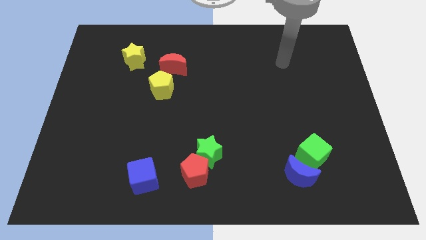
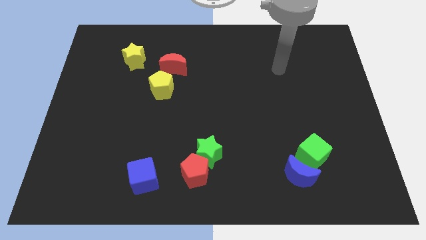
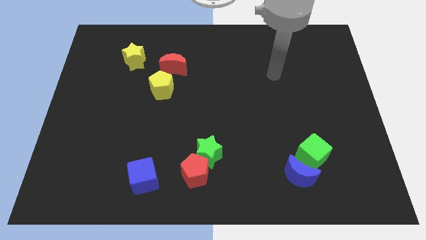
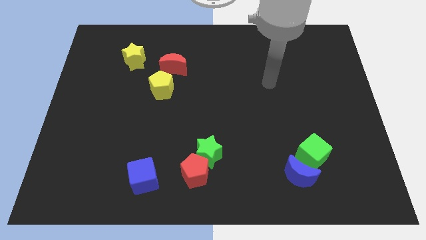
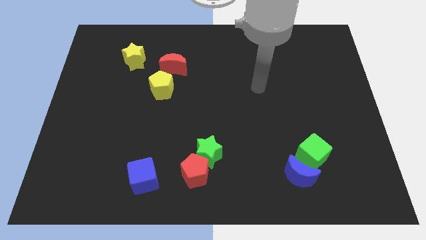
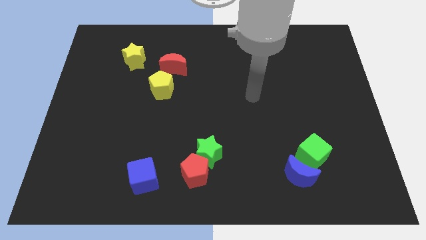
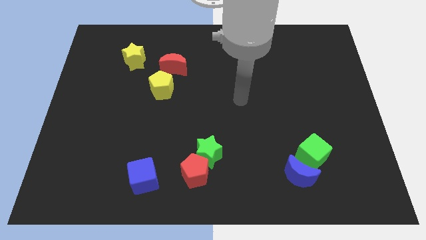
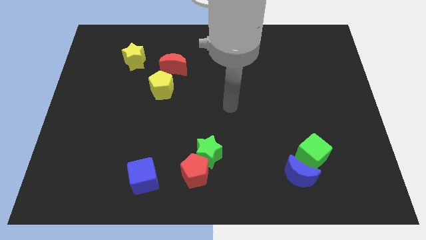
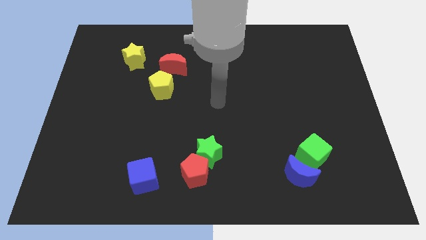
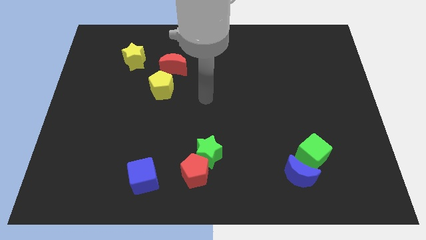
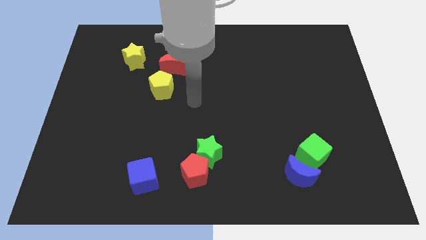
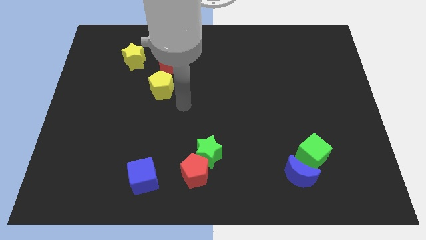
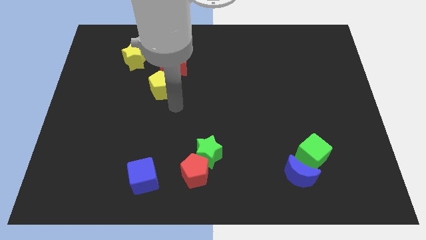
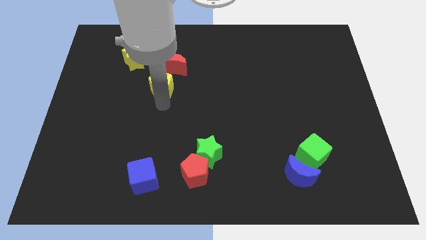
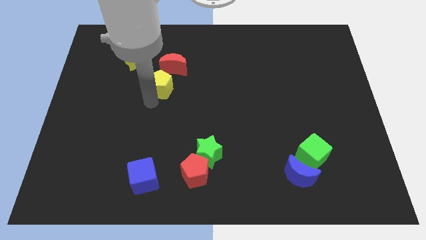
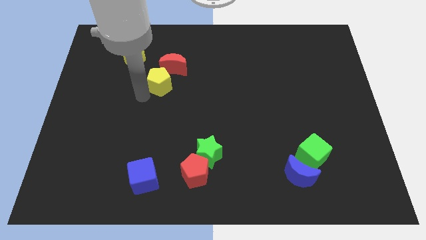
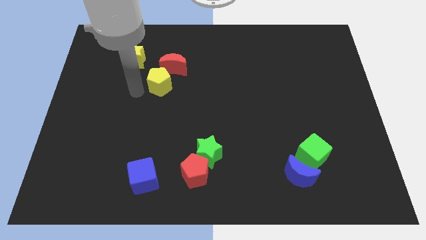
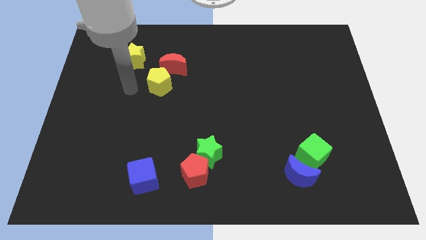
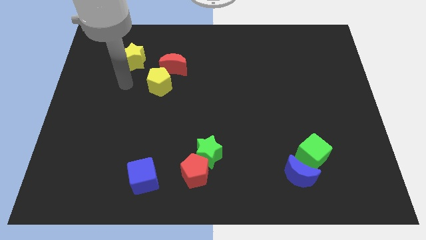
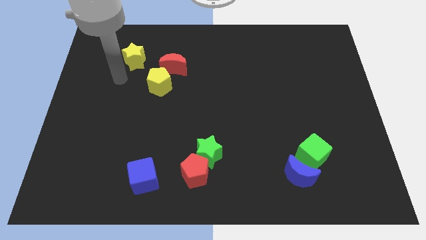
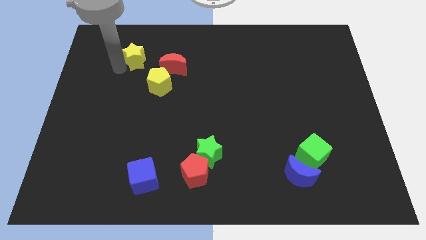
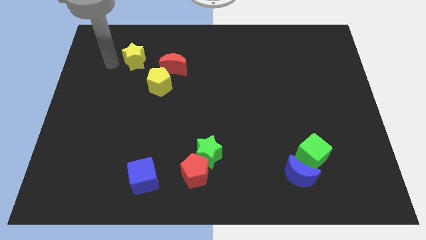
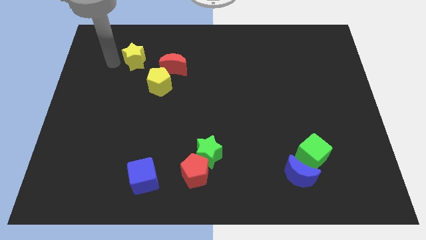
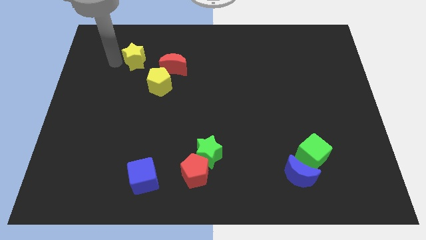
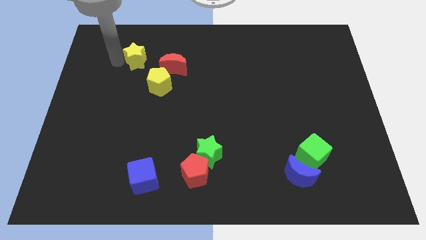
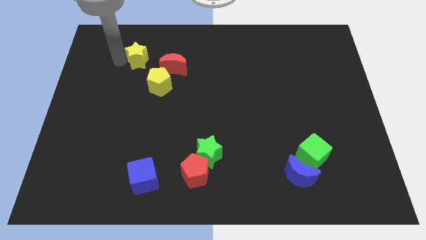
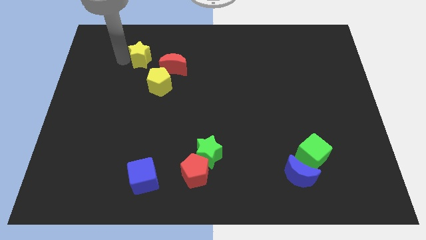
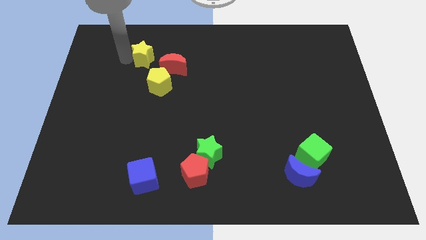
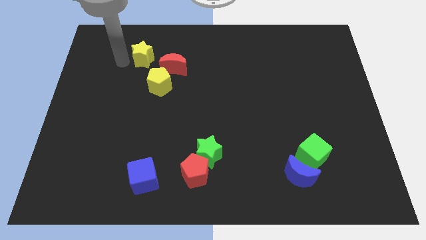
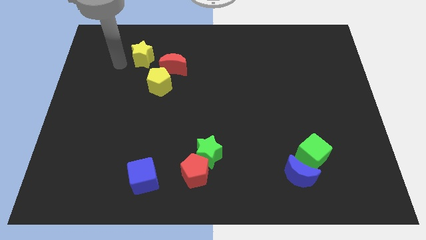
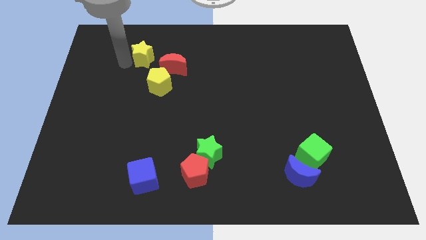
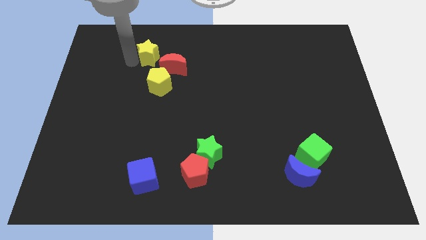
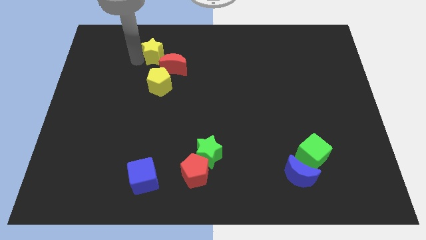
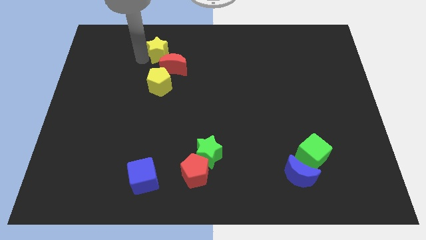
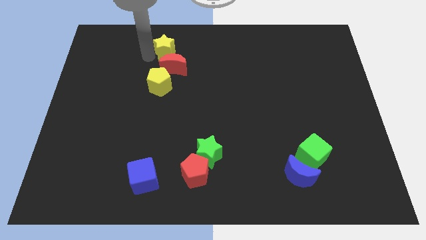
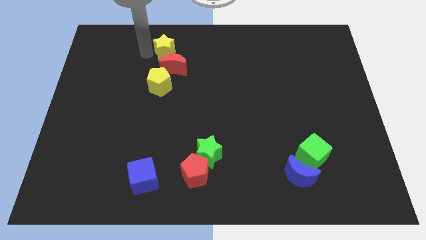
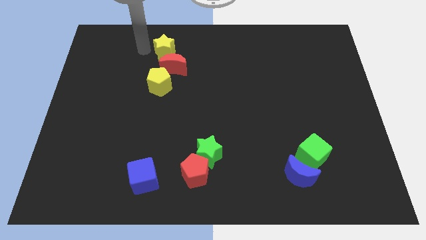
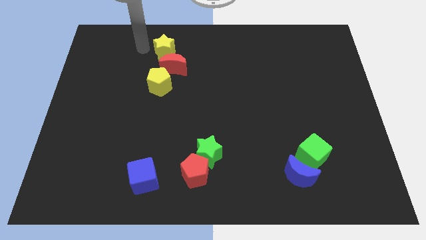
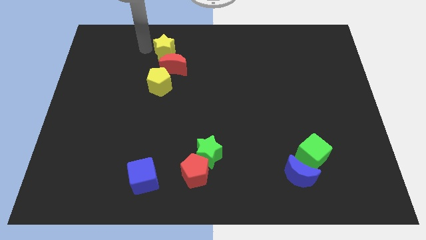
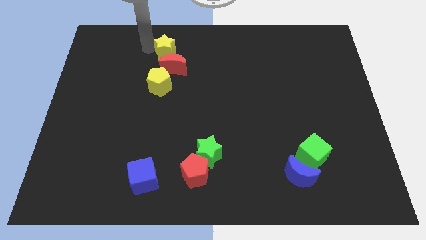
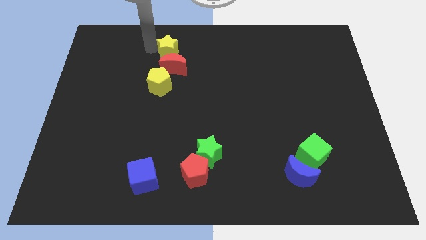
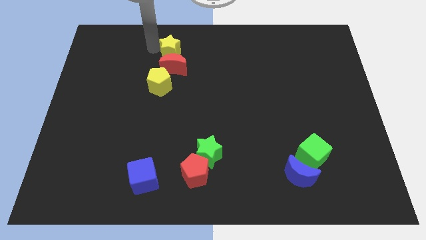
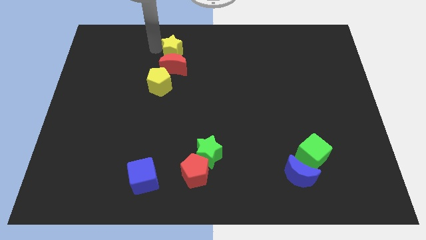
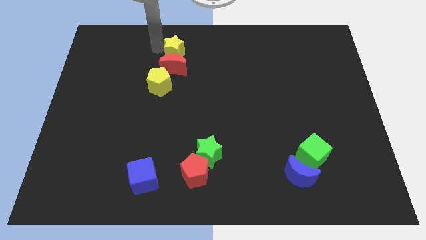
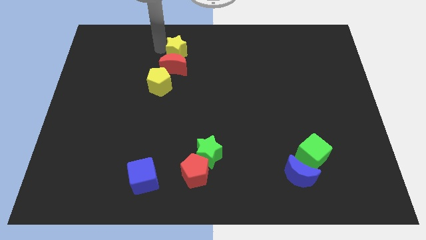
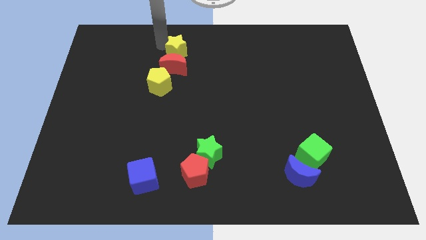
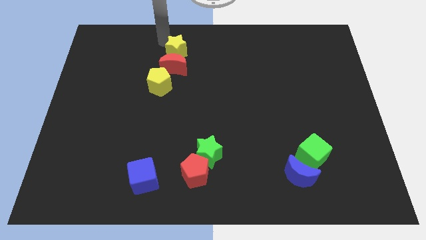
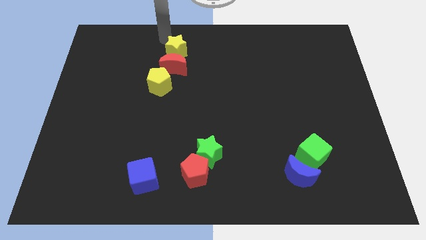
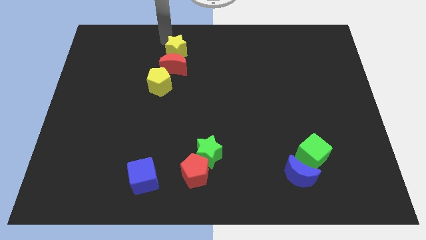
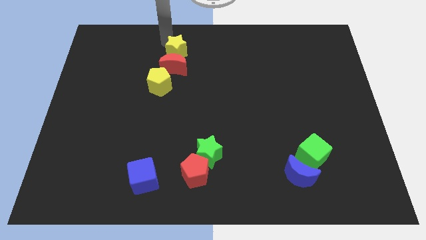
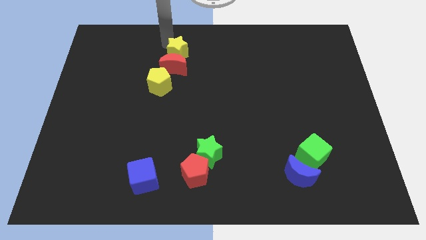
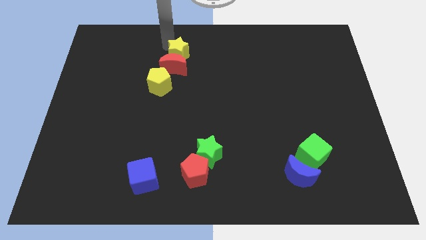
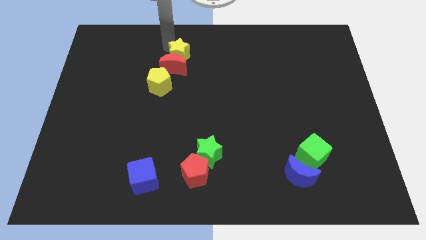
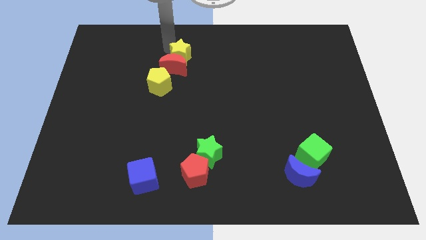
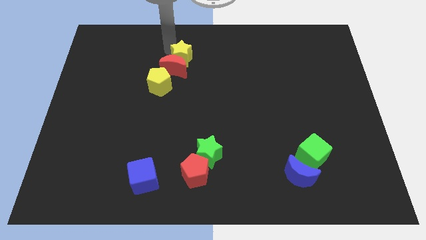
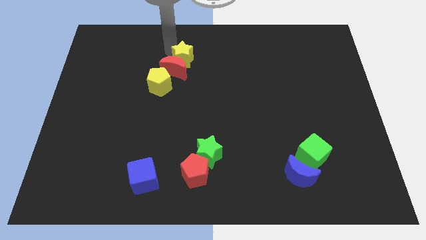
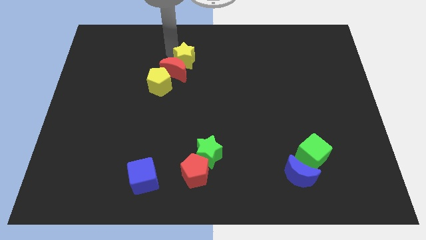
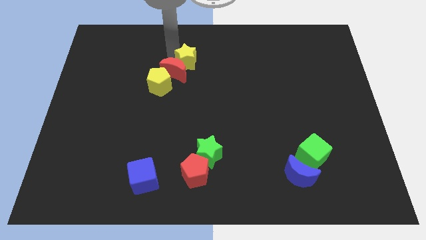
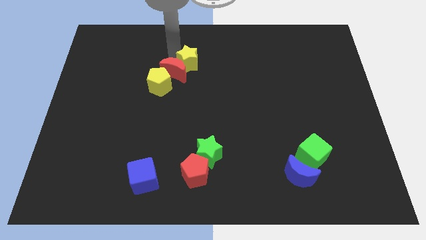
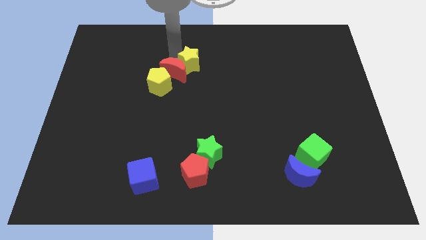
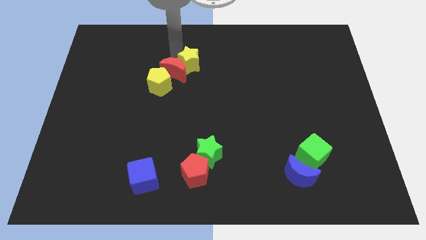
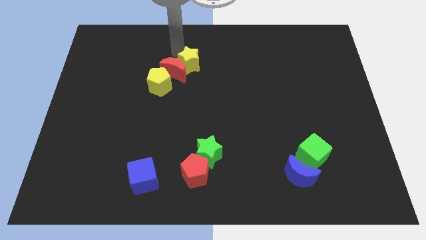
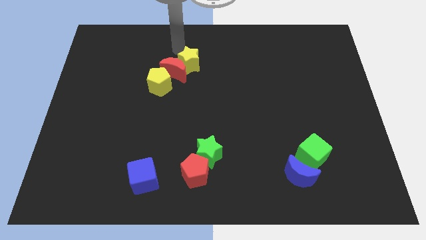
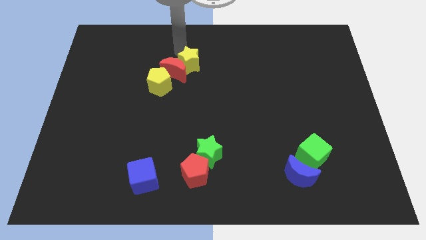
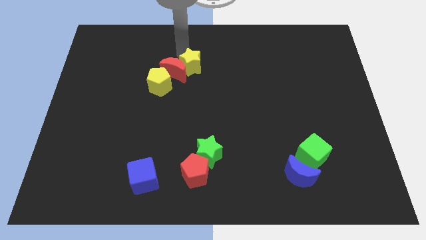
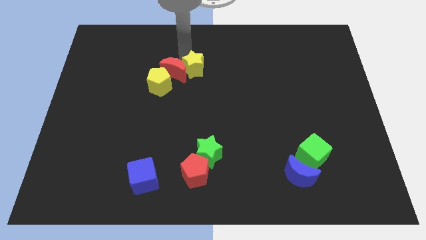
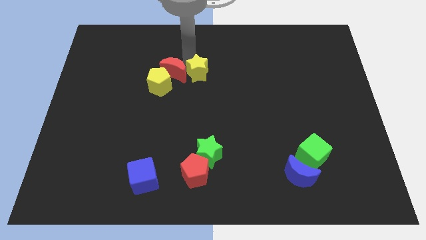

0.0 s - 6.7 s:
put the yellow star to the right side of the yellow pentagon
